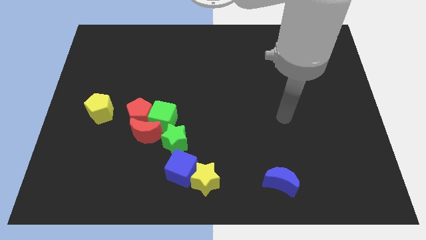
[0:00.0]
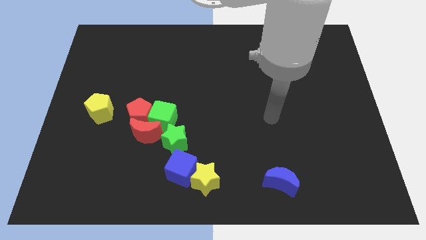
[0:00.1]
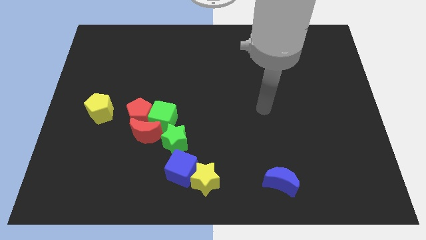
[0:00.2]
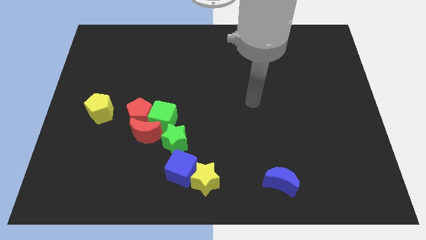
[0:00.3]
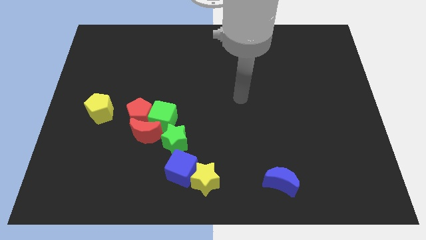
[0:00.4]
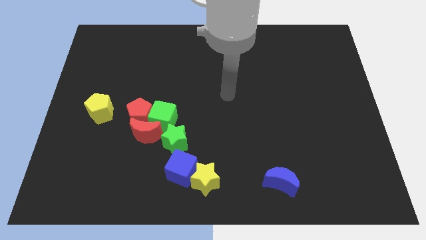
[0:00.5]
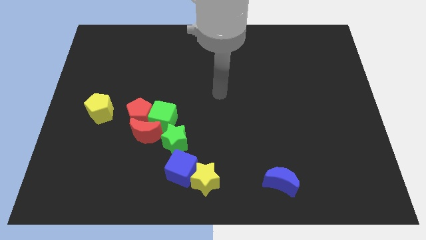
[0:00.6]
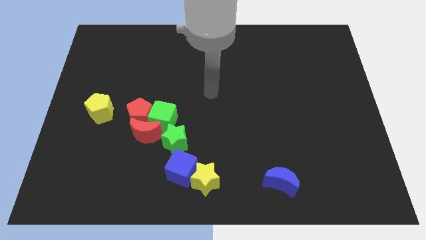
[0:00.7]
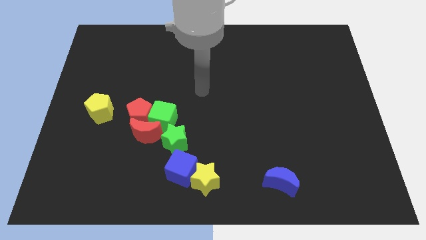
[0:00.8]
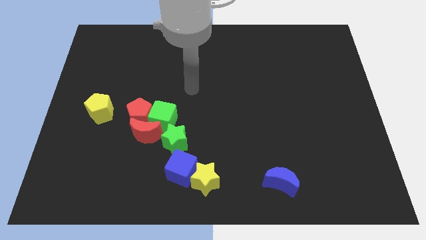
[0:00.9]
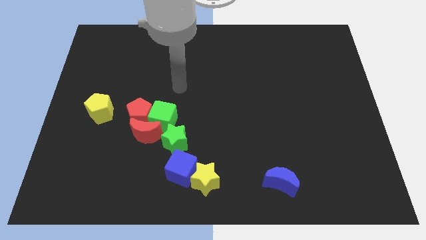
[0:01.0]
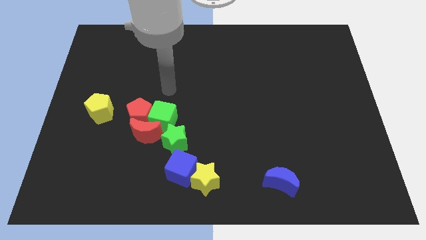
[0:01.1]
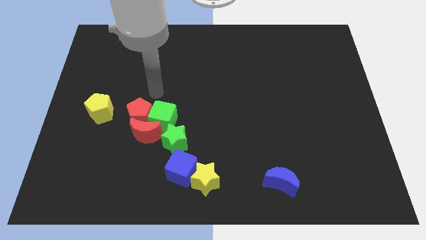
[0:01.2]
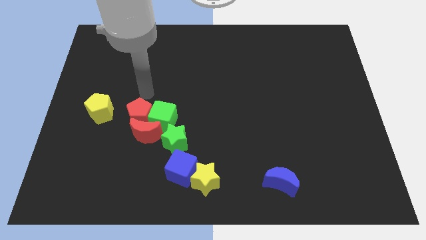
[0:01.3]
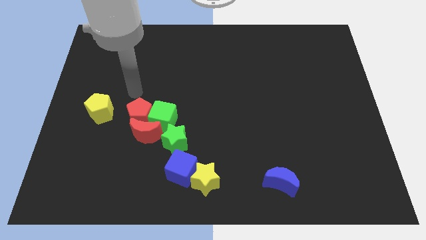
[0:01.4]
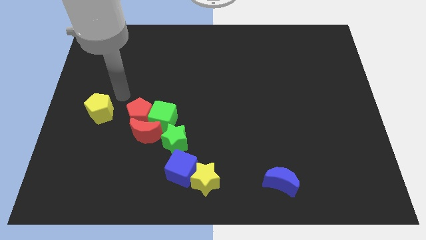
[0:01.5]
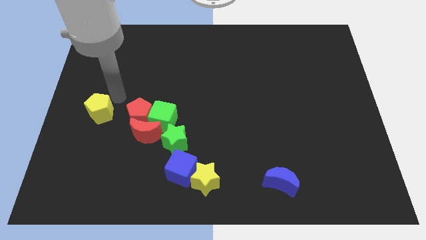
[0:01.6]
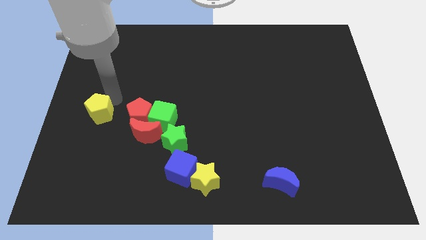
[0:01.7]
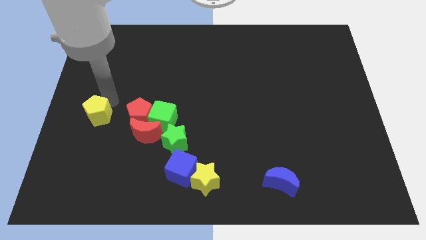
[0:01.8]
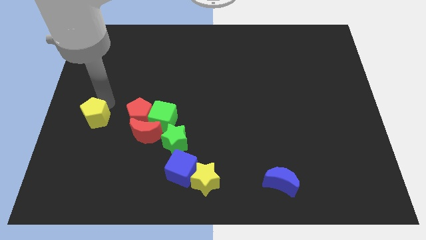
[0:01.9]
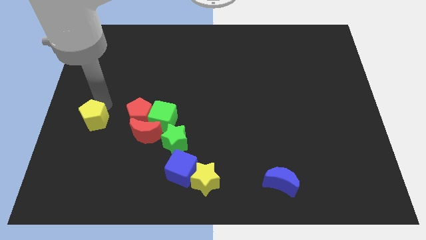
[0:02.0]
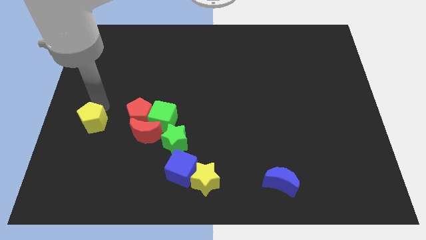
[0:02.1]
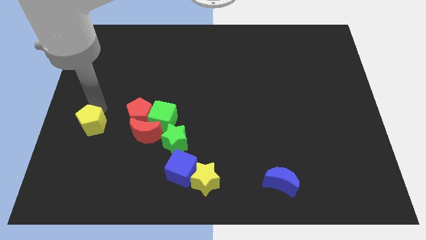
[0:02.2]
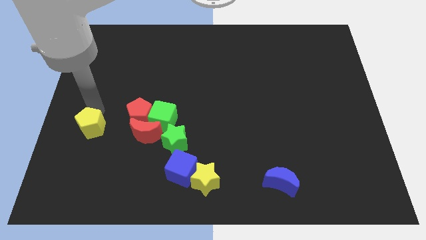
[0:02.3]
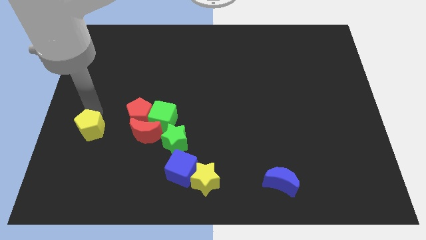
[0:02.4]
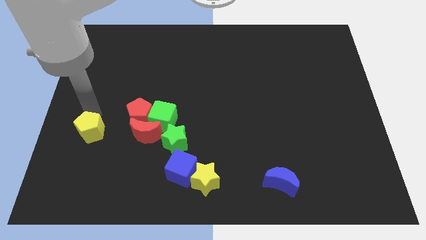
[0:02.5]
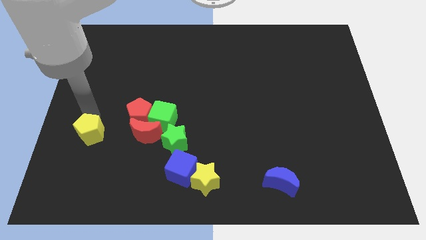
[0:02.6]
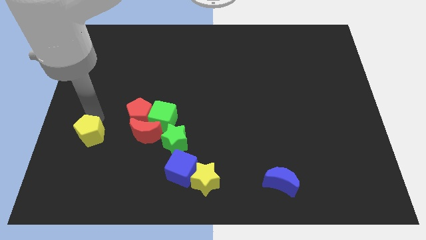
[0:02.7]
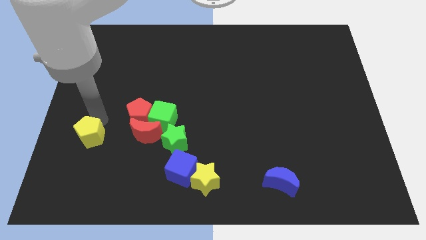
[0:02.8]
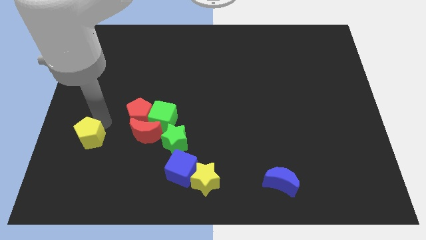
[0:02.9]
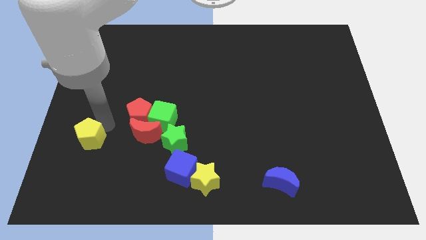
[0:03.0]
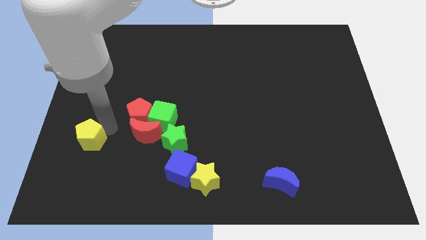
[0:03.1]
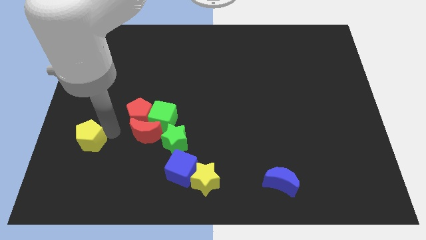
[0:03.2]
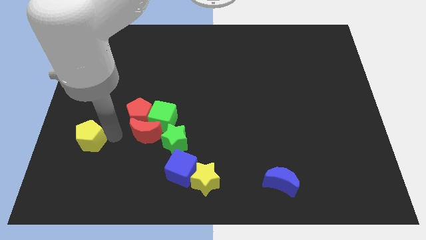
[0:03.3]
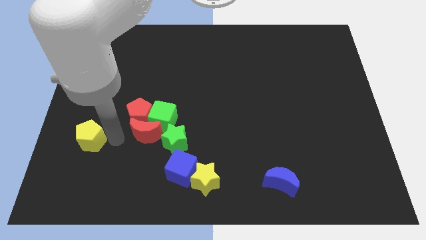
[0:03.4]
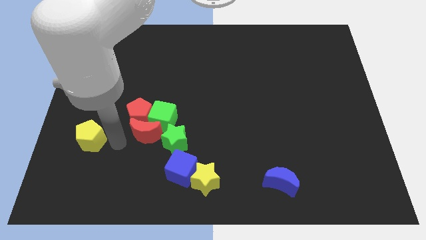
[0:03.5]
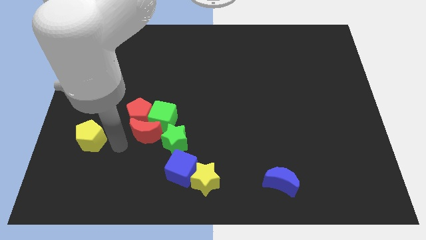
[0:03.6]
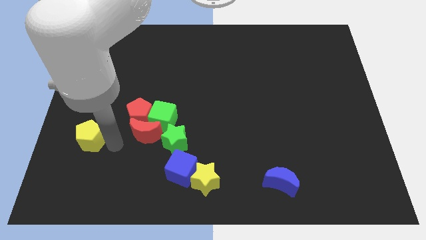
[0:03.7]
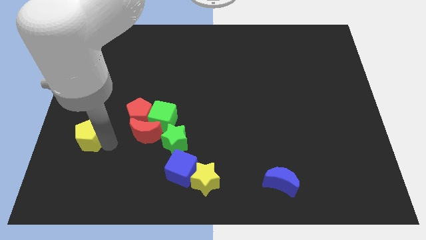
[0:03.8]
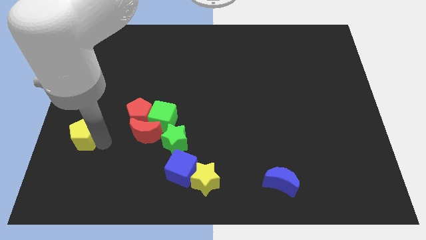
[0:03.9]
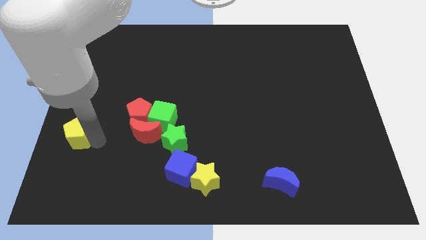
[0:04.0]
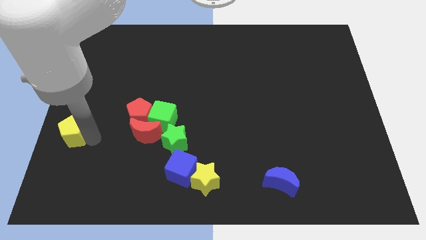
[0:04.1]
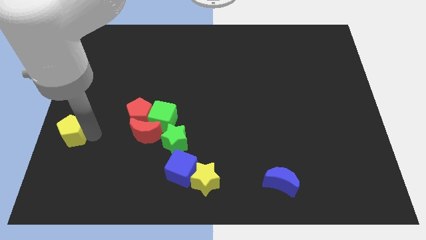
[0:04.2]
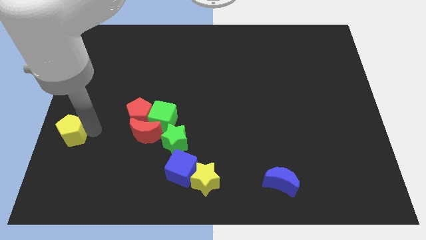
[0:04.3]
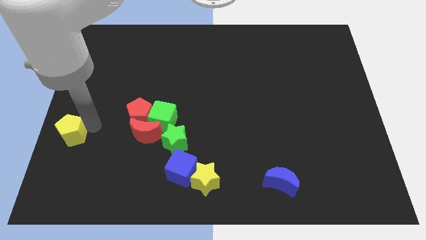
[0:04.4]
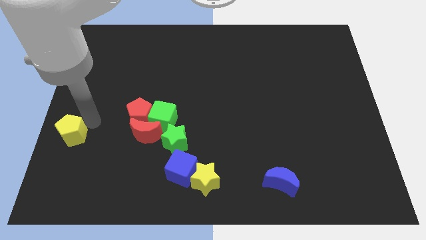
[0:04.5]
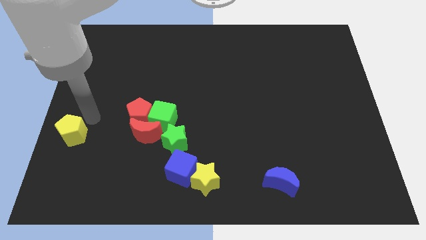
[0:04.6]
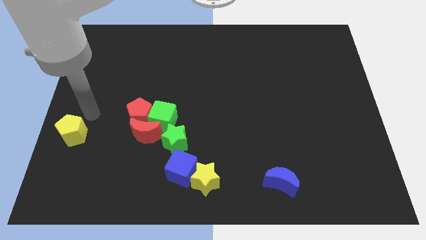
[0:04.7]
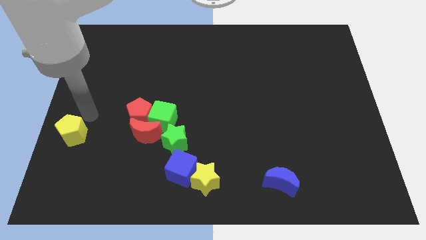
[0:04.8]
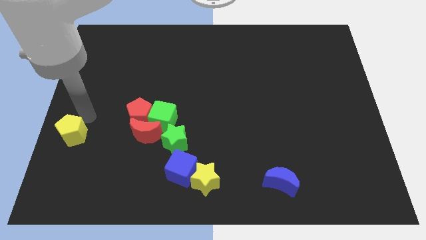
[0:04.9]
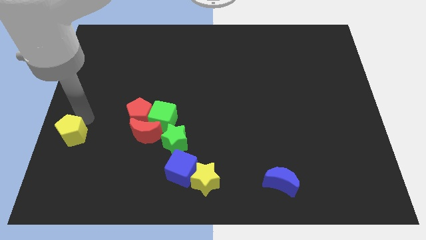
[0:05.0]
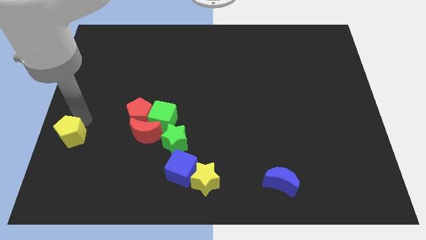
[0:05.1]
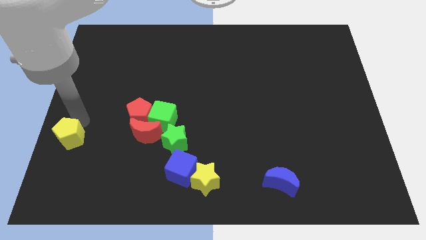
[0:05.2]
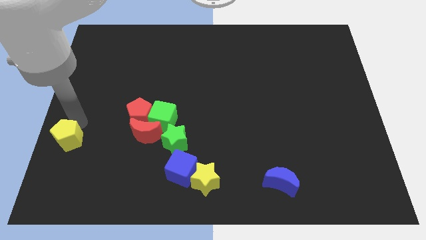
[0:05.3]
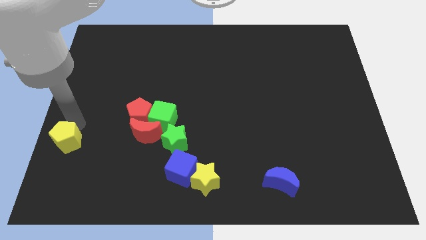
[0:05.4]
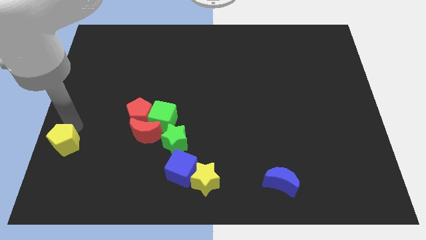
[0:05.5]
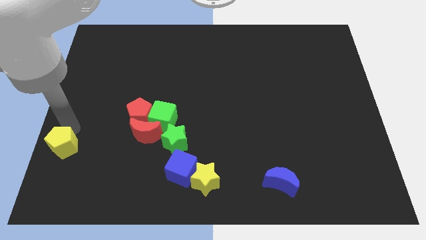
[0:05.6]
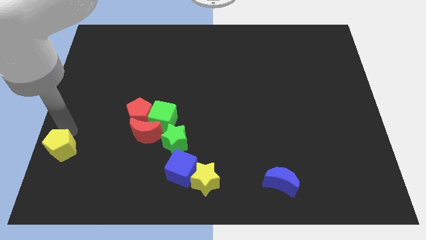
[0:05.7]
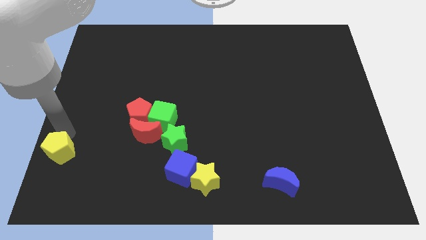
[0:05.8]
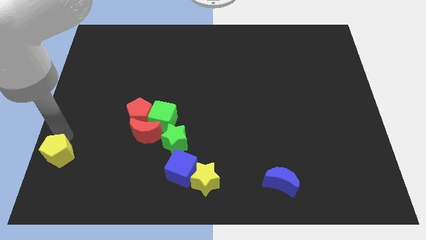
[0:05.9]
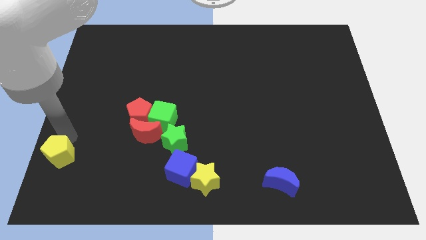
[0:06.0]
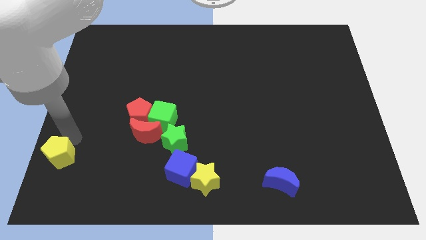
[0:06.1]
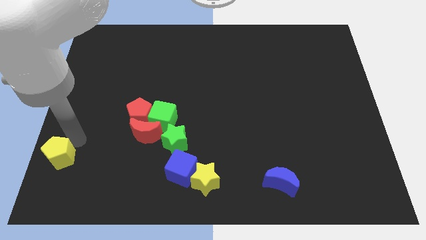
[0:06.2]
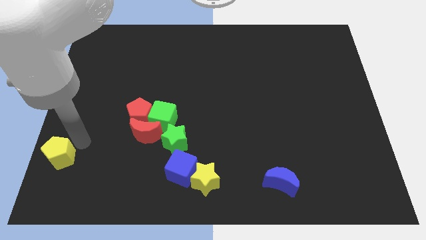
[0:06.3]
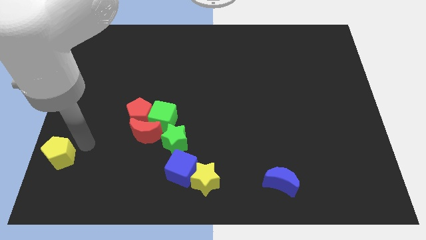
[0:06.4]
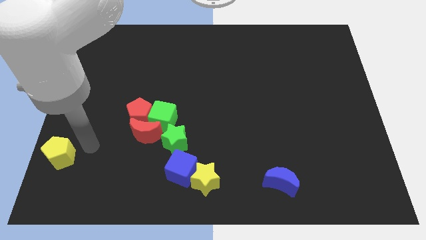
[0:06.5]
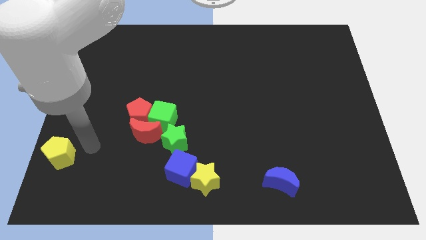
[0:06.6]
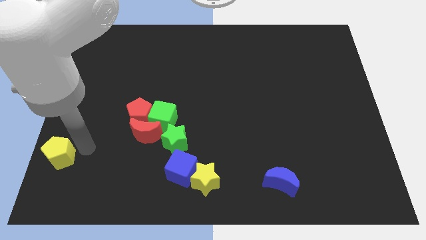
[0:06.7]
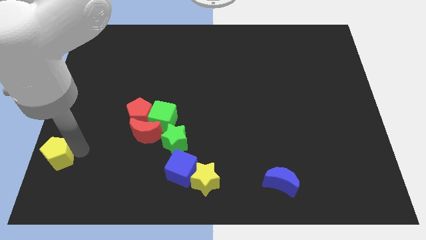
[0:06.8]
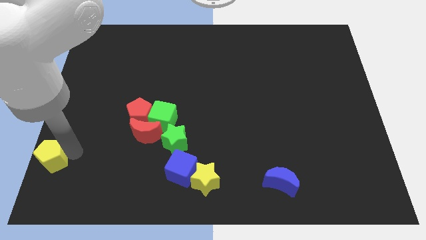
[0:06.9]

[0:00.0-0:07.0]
put the yellow pentagon to the bottom left of the board
